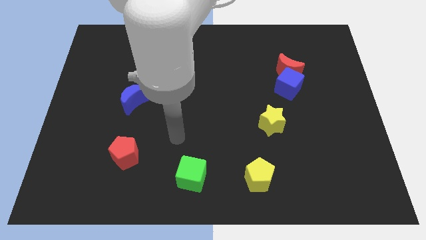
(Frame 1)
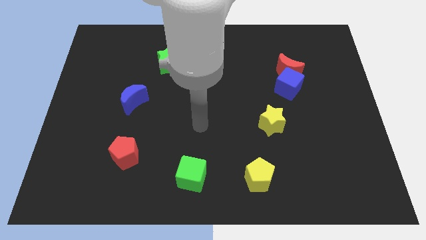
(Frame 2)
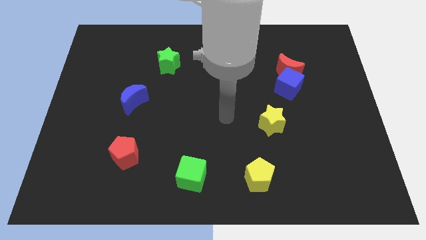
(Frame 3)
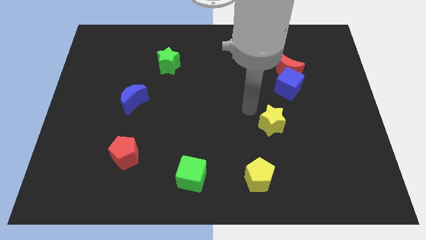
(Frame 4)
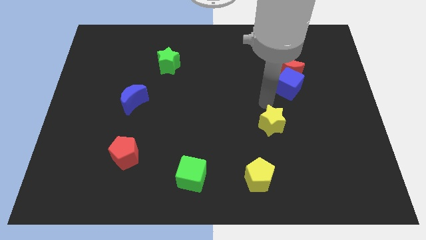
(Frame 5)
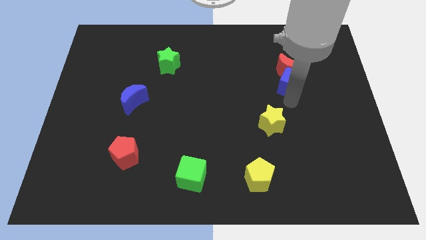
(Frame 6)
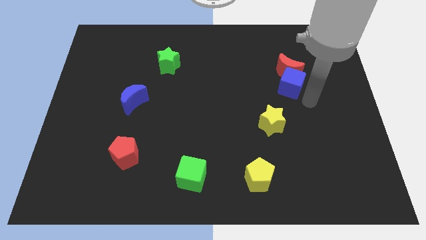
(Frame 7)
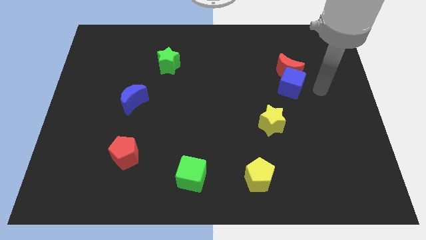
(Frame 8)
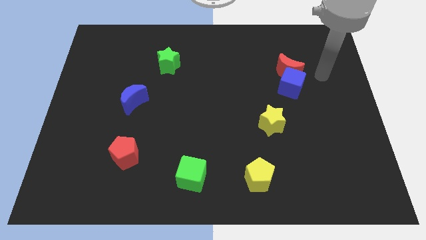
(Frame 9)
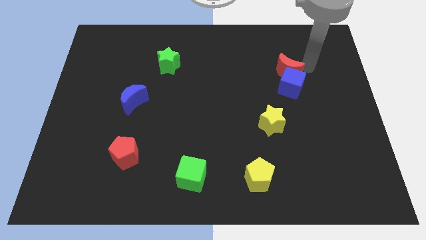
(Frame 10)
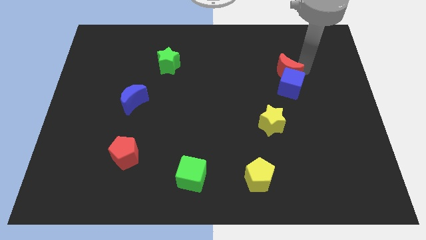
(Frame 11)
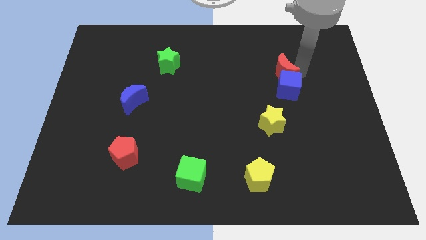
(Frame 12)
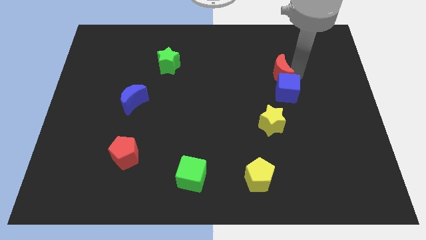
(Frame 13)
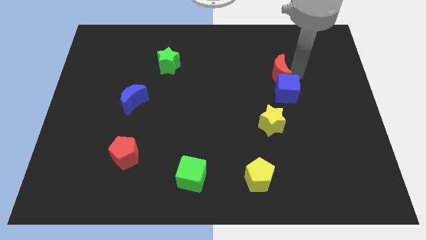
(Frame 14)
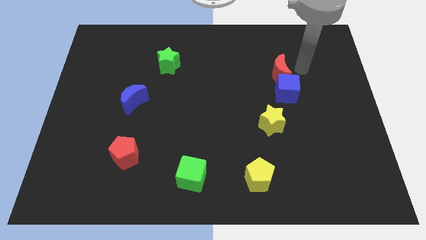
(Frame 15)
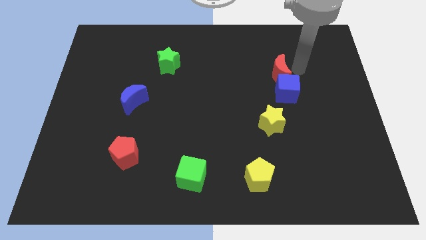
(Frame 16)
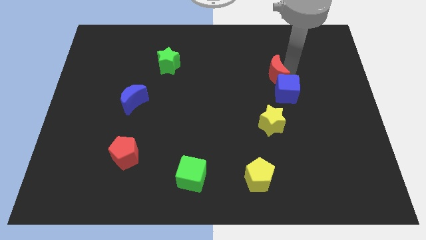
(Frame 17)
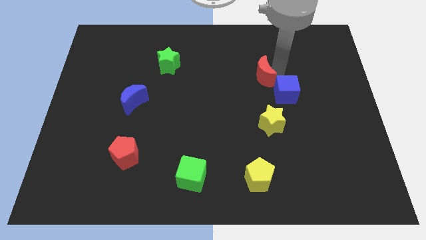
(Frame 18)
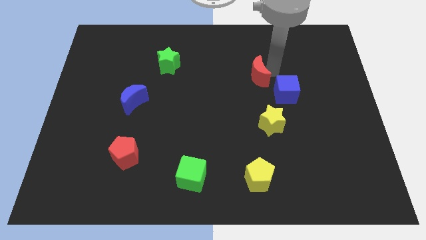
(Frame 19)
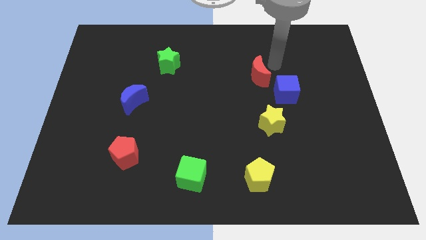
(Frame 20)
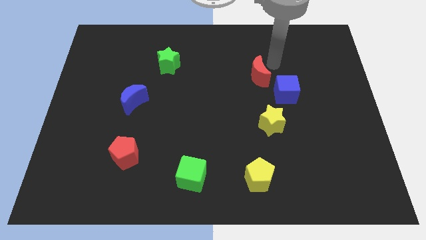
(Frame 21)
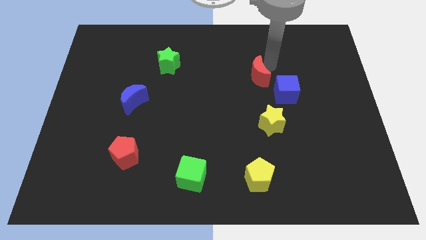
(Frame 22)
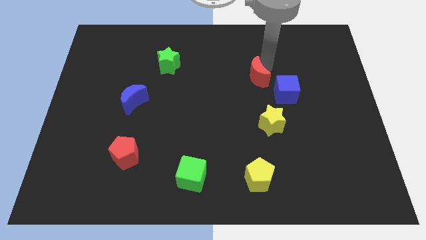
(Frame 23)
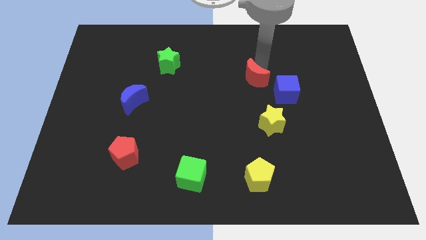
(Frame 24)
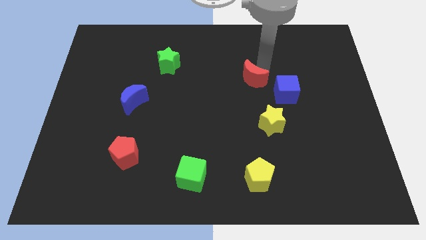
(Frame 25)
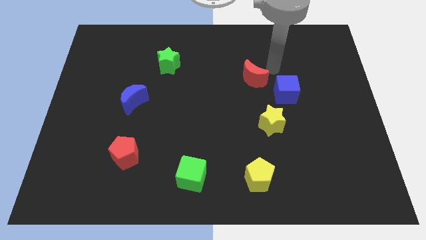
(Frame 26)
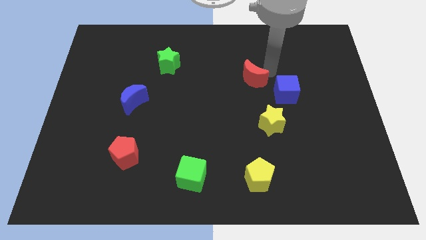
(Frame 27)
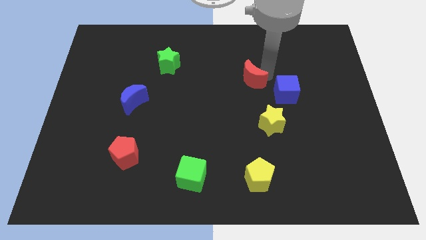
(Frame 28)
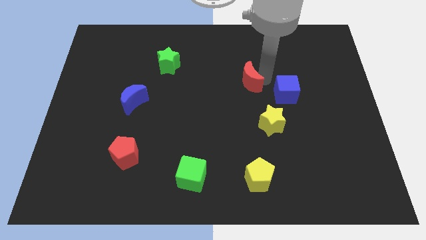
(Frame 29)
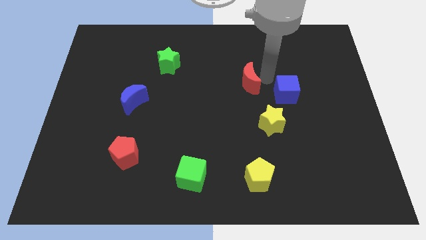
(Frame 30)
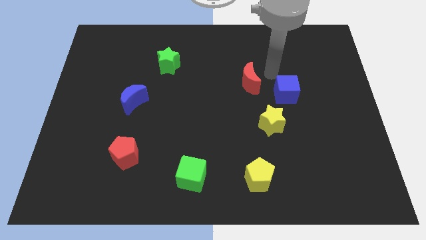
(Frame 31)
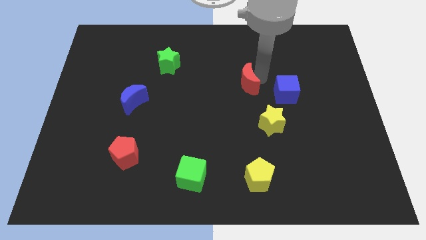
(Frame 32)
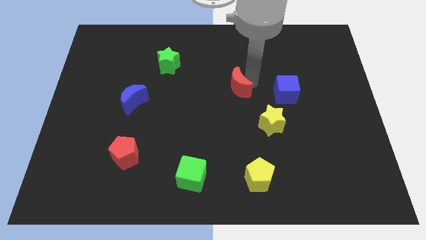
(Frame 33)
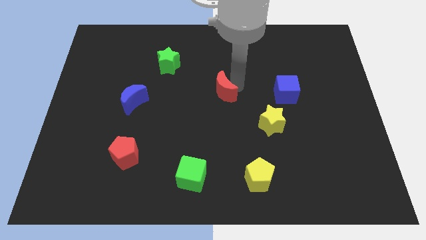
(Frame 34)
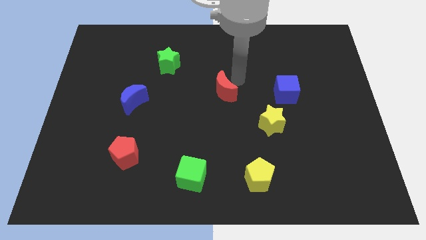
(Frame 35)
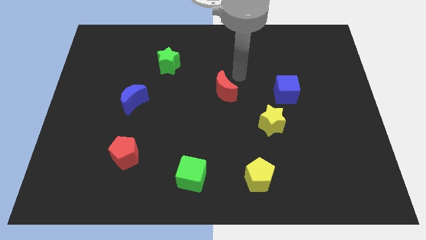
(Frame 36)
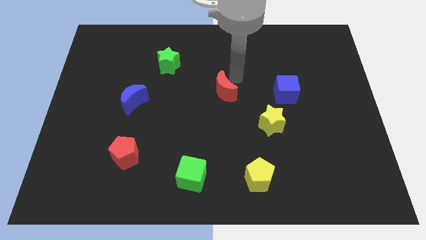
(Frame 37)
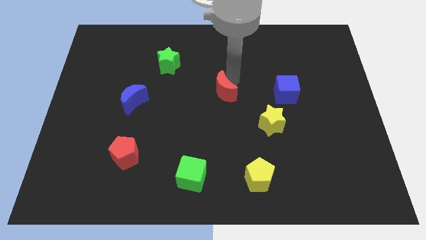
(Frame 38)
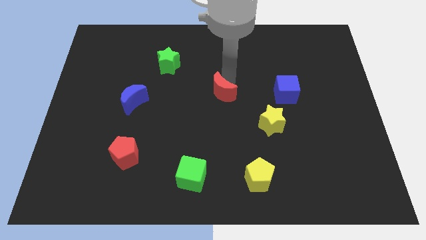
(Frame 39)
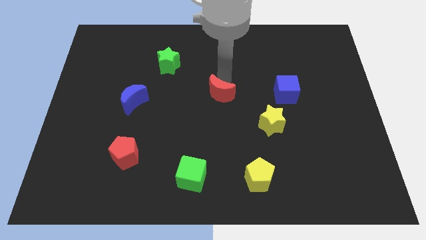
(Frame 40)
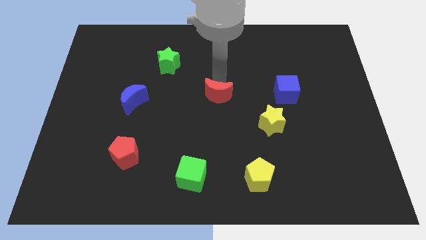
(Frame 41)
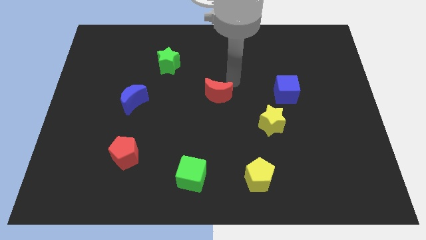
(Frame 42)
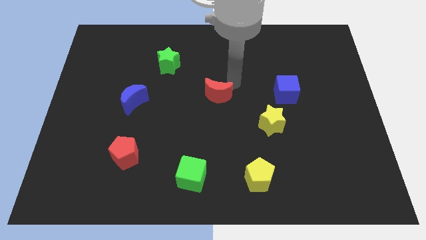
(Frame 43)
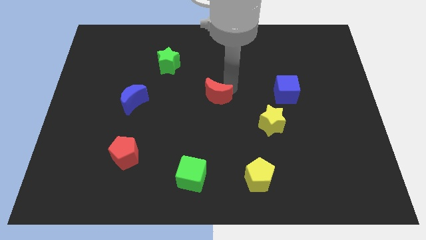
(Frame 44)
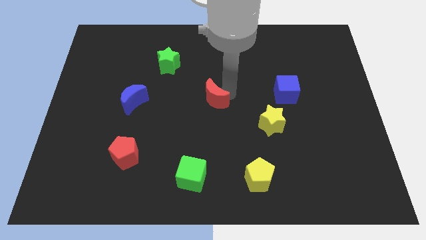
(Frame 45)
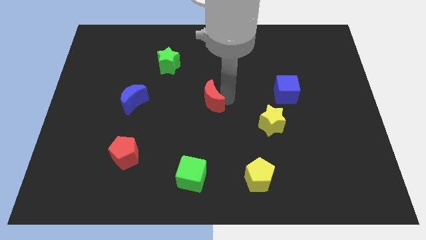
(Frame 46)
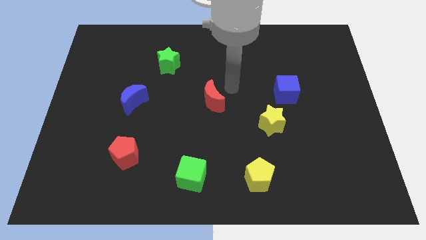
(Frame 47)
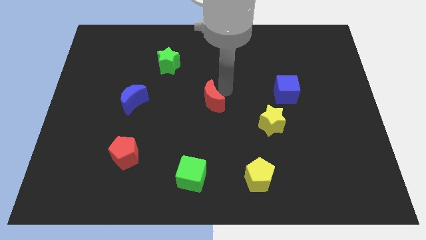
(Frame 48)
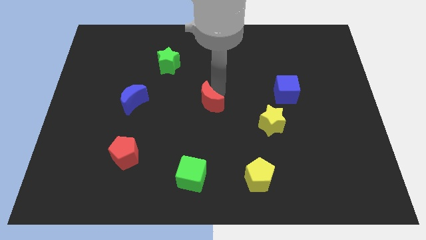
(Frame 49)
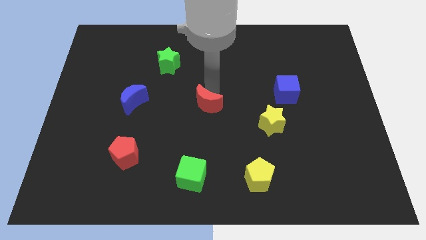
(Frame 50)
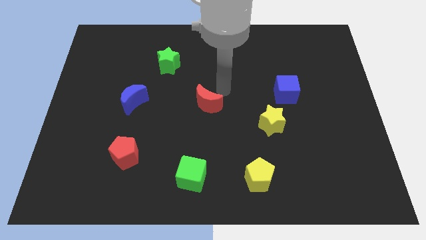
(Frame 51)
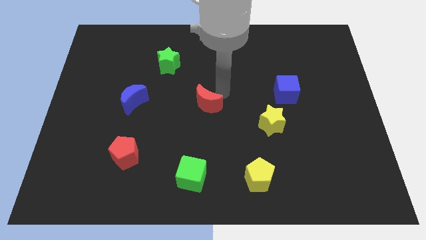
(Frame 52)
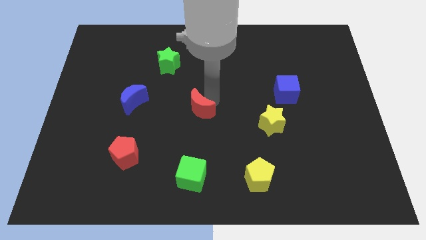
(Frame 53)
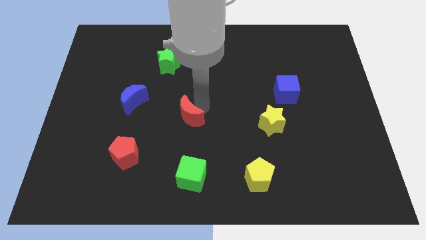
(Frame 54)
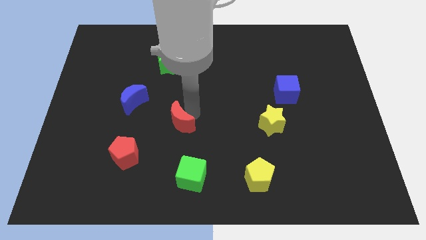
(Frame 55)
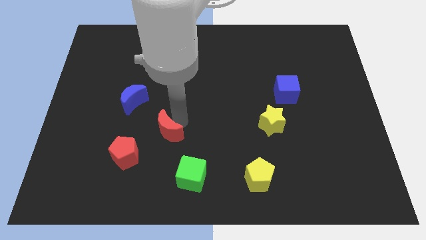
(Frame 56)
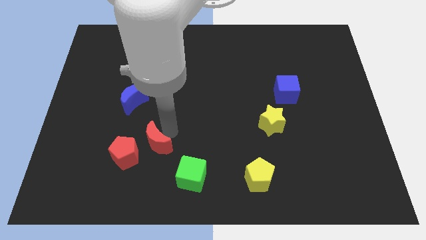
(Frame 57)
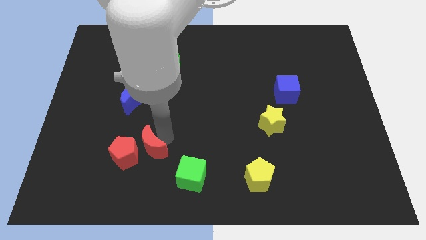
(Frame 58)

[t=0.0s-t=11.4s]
move the red moon next to the red pentagon

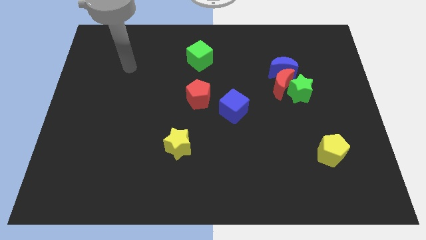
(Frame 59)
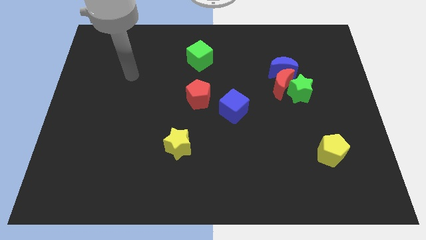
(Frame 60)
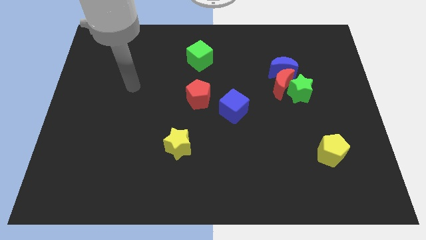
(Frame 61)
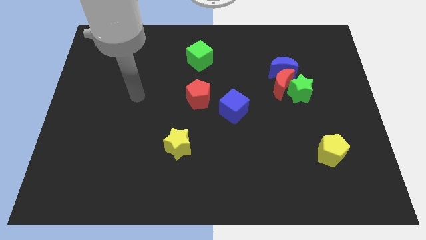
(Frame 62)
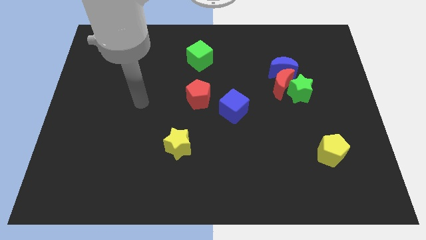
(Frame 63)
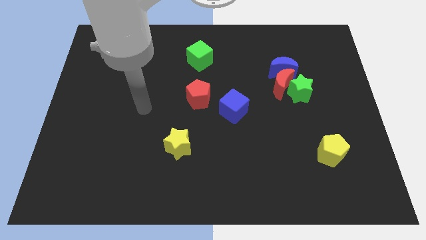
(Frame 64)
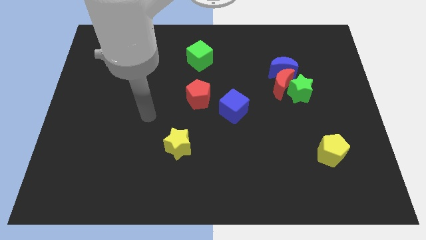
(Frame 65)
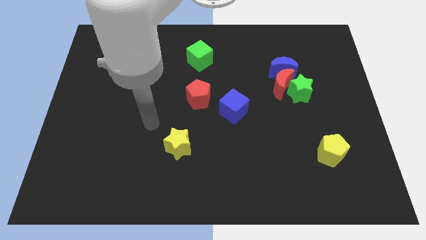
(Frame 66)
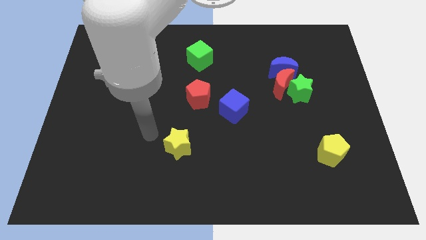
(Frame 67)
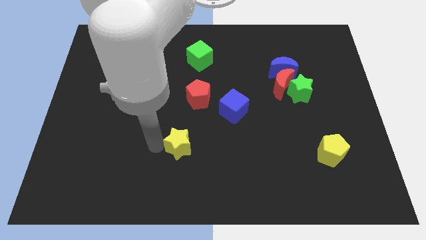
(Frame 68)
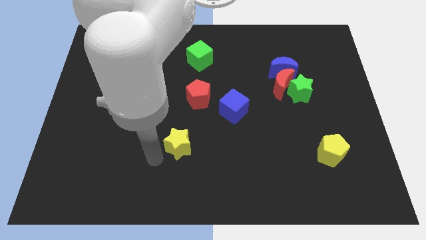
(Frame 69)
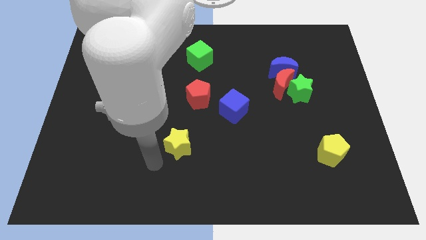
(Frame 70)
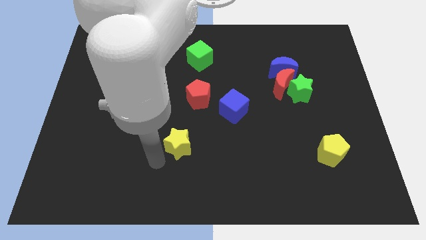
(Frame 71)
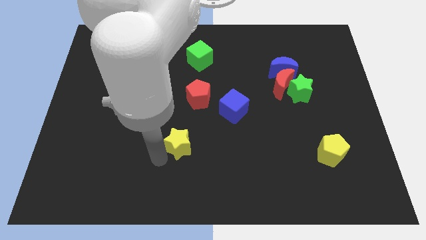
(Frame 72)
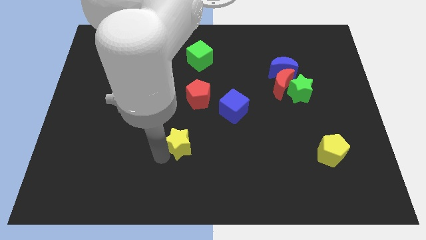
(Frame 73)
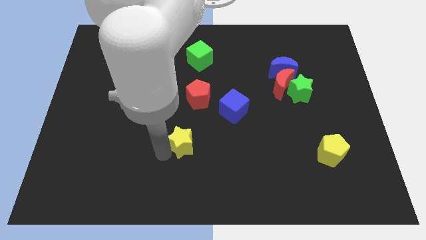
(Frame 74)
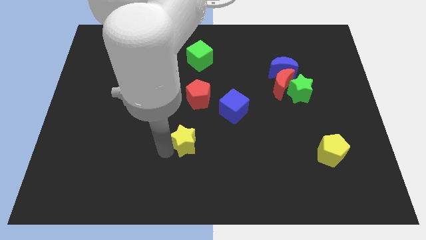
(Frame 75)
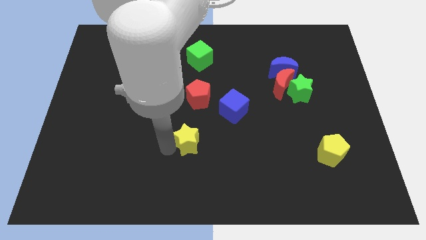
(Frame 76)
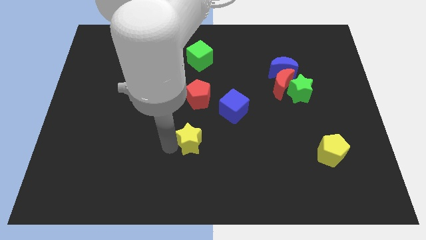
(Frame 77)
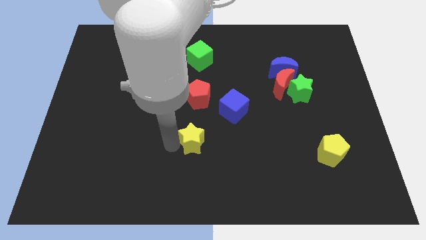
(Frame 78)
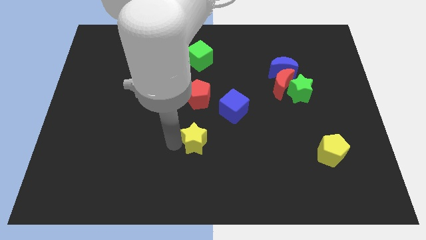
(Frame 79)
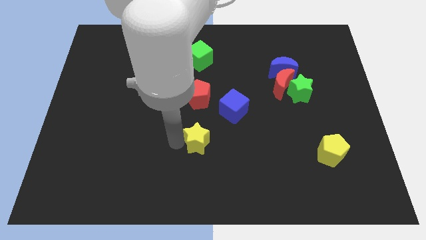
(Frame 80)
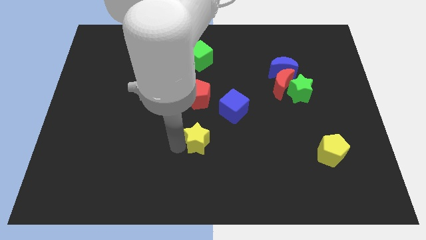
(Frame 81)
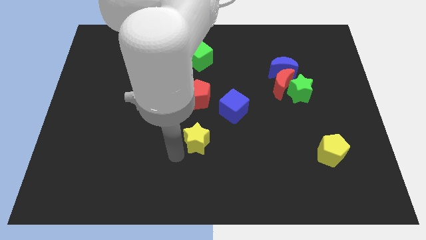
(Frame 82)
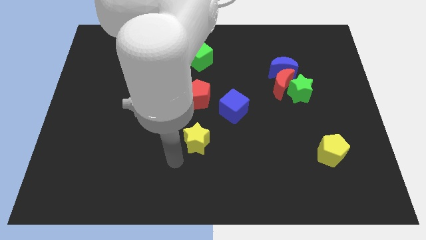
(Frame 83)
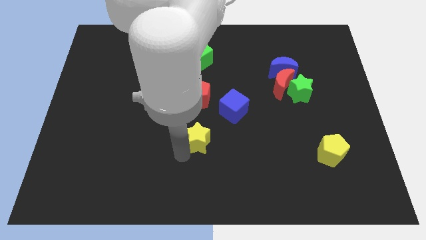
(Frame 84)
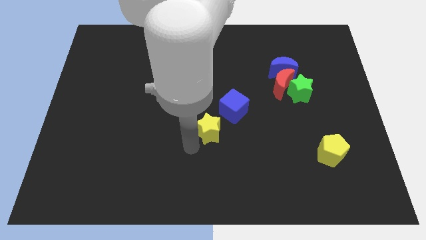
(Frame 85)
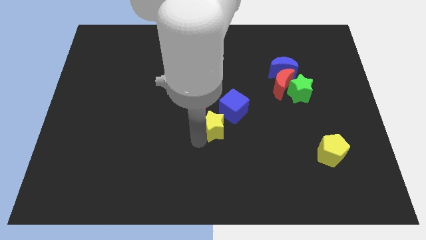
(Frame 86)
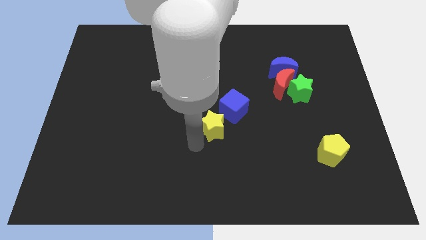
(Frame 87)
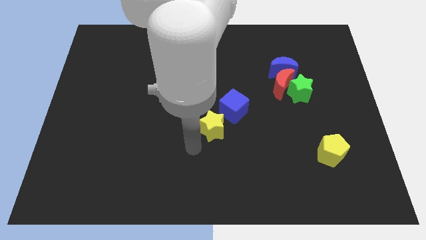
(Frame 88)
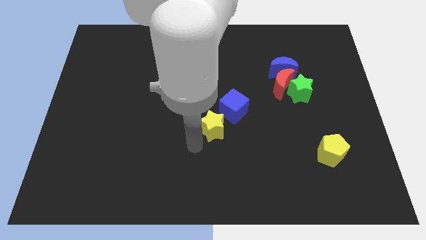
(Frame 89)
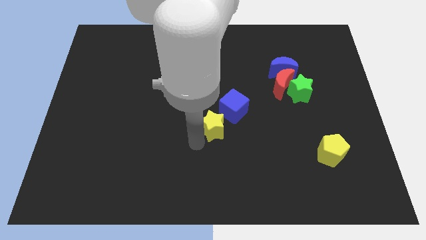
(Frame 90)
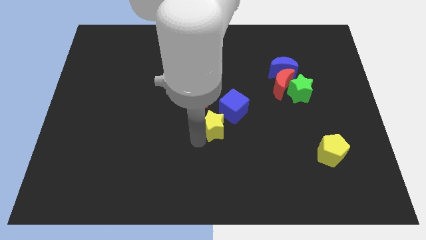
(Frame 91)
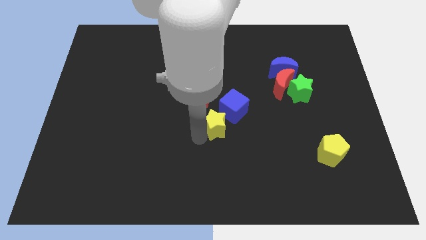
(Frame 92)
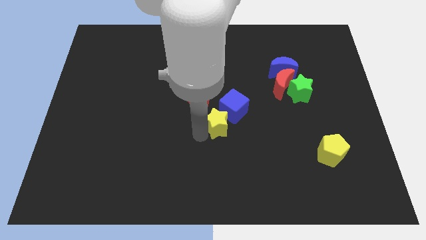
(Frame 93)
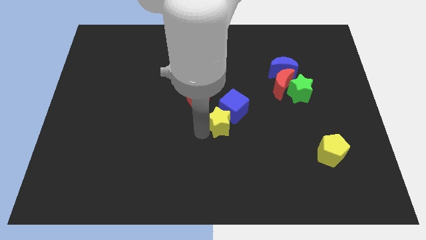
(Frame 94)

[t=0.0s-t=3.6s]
slide the yellow star towards the blue cube
